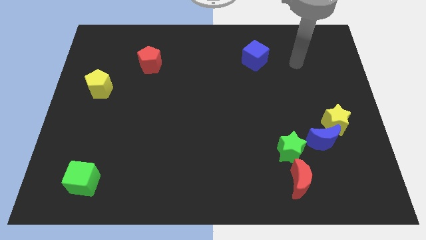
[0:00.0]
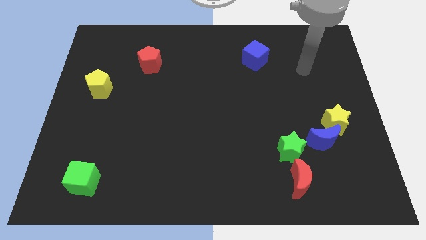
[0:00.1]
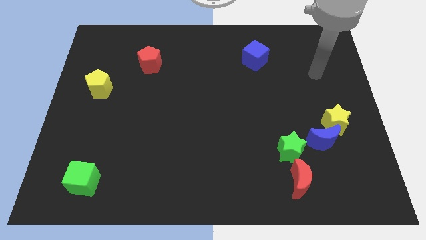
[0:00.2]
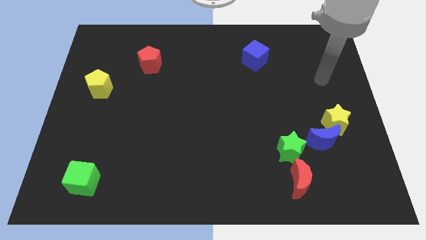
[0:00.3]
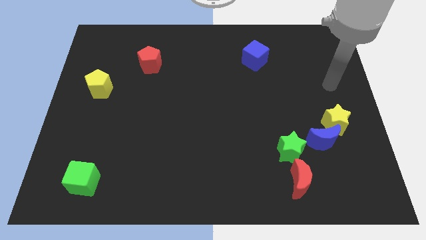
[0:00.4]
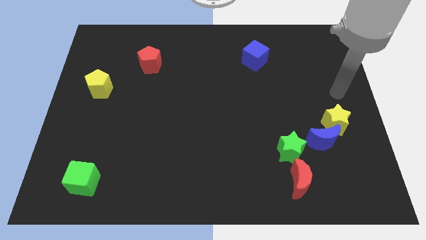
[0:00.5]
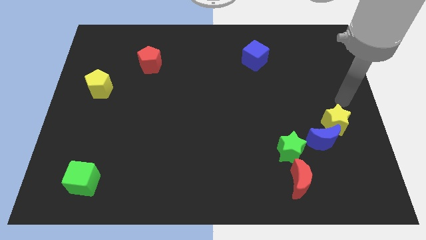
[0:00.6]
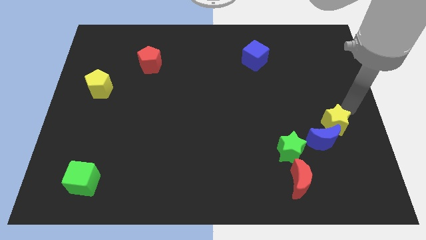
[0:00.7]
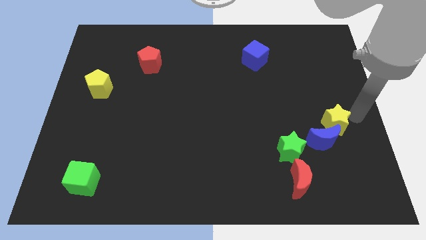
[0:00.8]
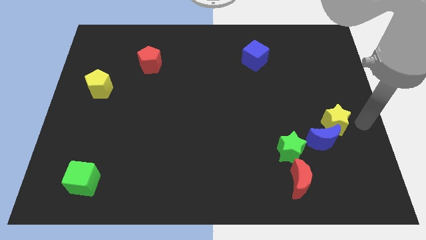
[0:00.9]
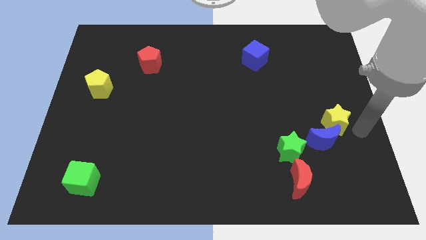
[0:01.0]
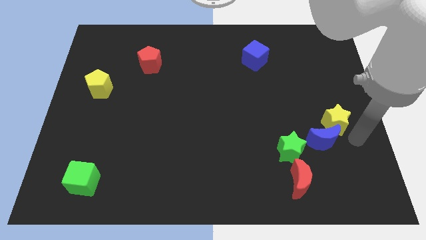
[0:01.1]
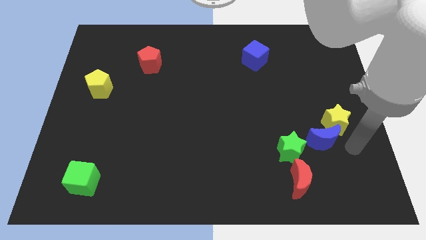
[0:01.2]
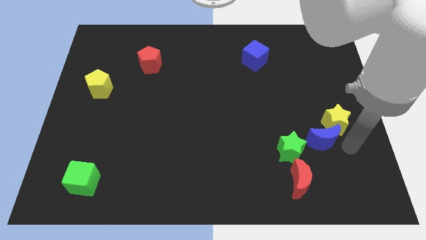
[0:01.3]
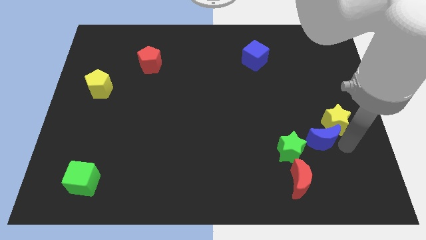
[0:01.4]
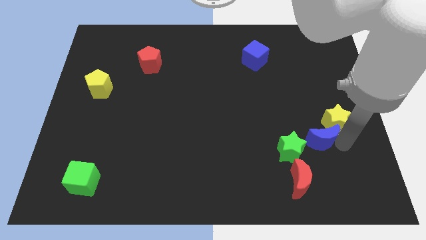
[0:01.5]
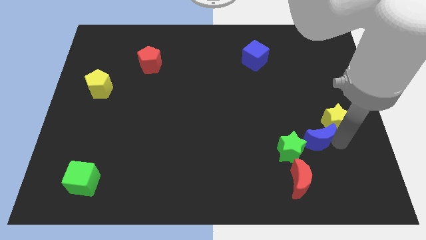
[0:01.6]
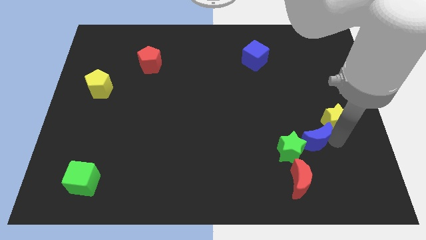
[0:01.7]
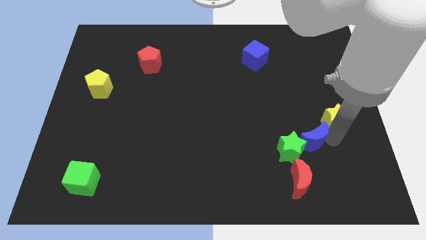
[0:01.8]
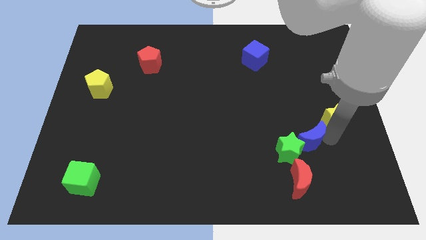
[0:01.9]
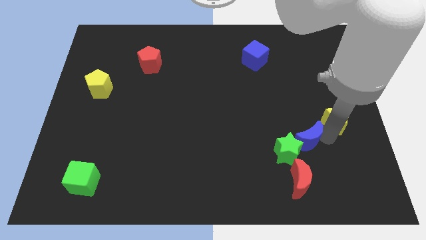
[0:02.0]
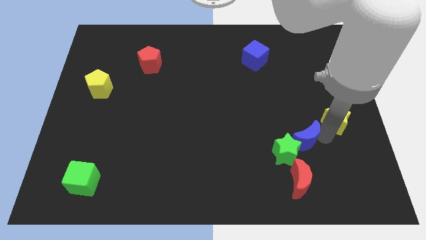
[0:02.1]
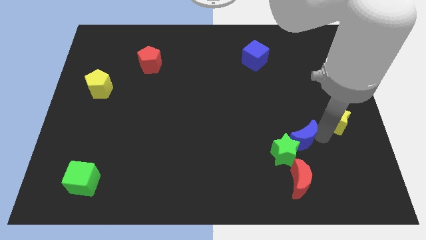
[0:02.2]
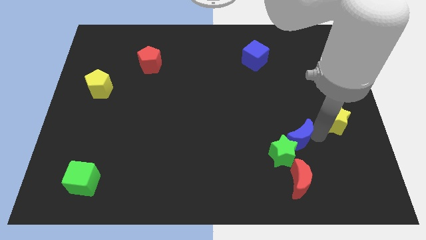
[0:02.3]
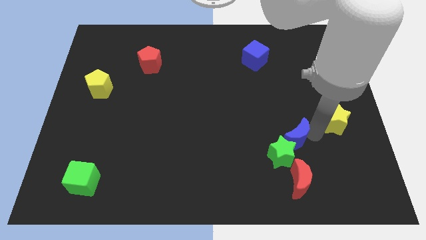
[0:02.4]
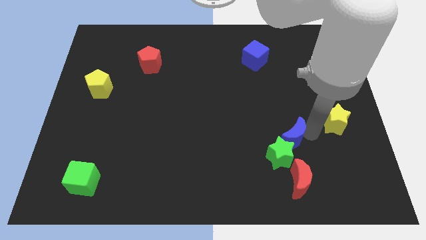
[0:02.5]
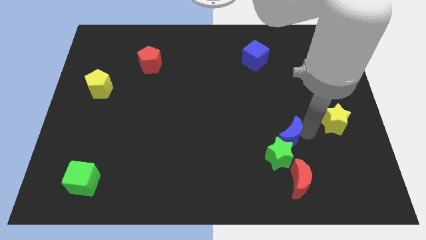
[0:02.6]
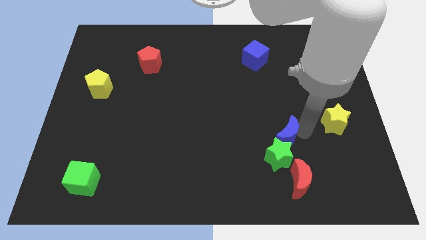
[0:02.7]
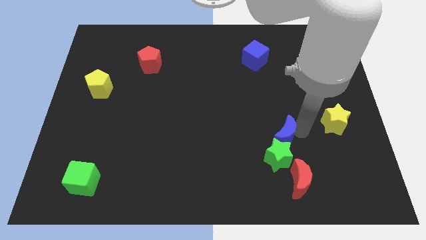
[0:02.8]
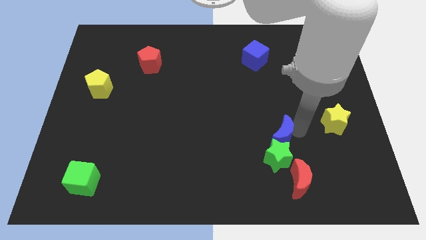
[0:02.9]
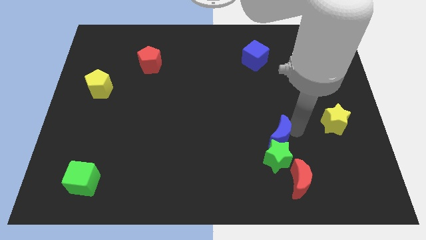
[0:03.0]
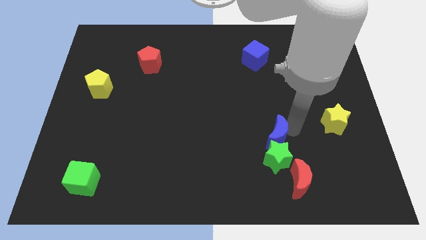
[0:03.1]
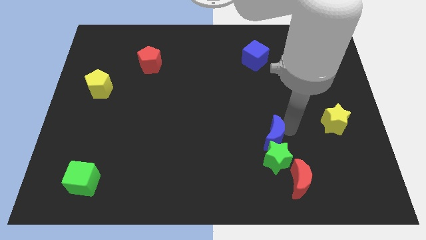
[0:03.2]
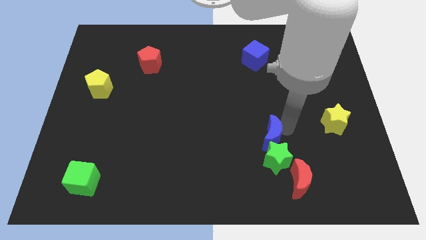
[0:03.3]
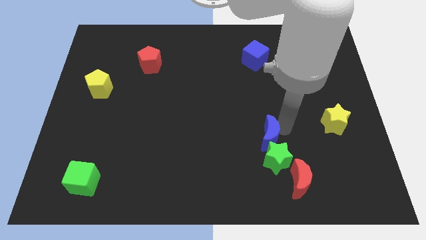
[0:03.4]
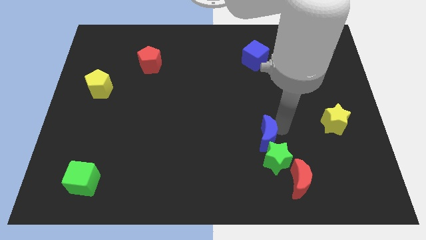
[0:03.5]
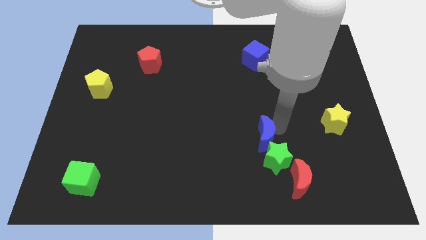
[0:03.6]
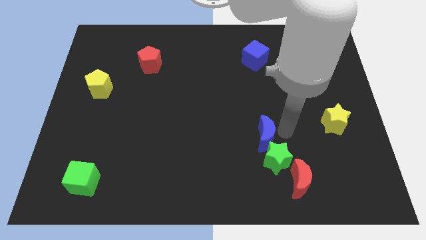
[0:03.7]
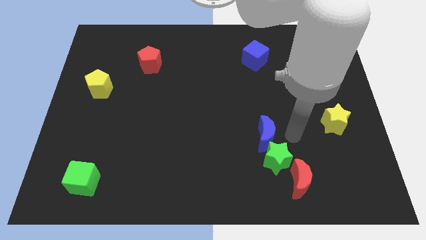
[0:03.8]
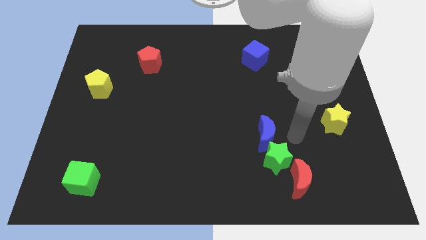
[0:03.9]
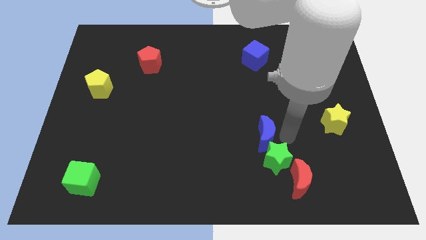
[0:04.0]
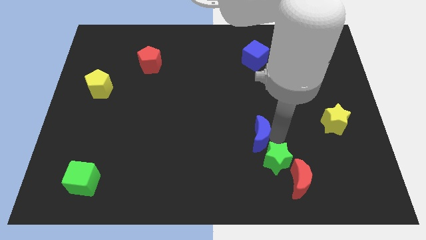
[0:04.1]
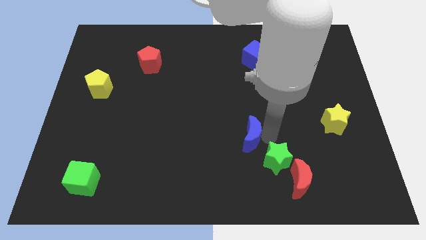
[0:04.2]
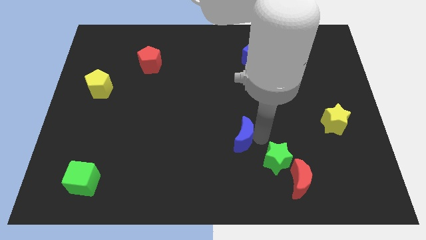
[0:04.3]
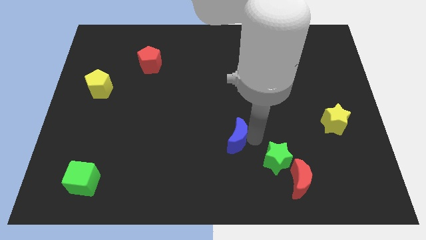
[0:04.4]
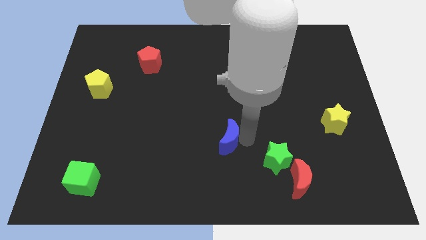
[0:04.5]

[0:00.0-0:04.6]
move the blue moon left

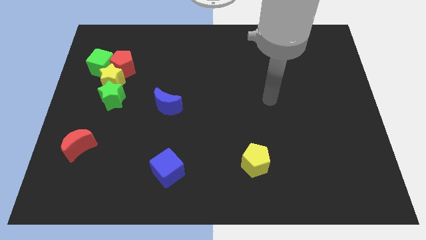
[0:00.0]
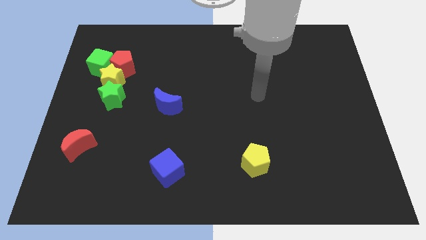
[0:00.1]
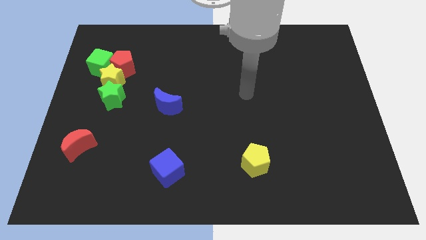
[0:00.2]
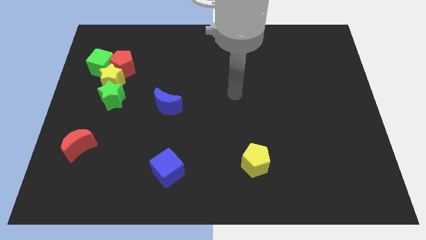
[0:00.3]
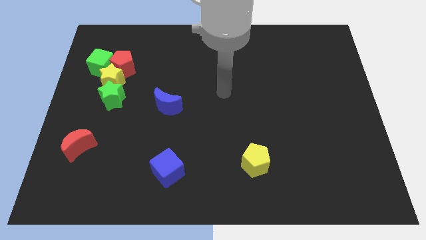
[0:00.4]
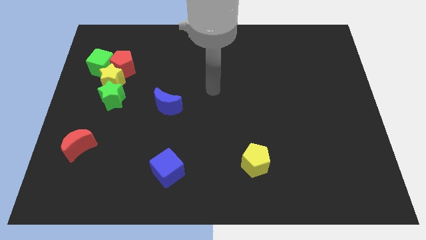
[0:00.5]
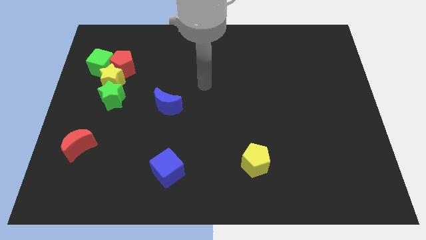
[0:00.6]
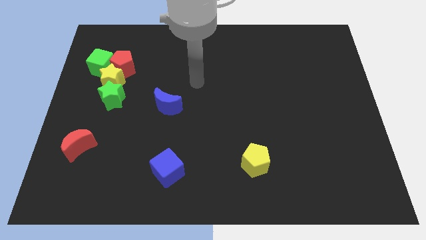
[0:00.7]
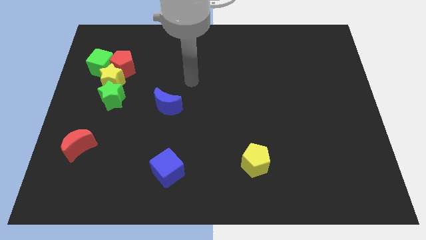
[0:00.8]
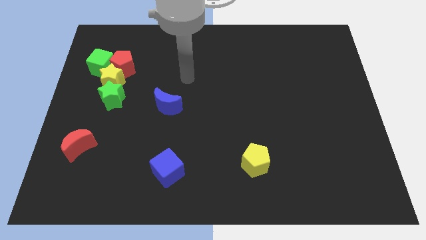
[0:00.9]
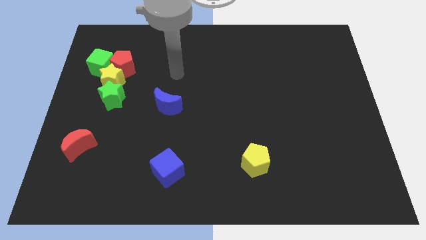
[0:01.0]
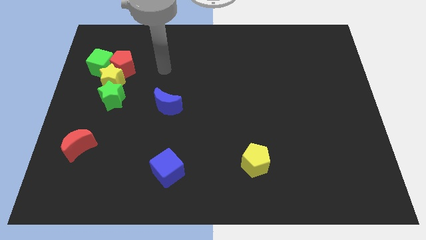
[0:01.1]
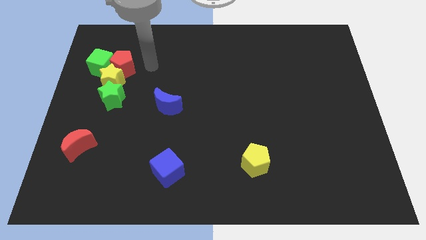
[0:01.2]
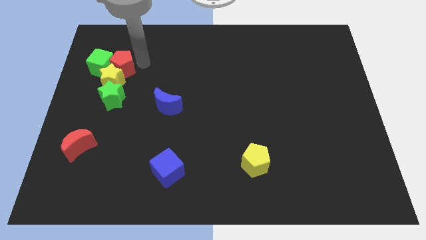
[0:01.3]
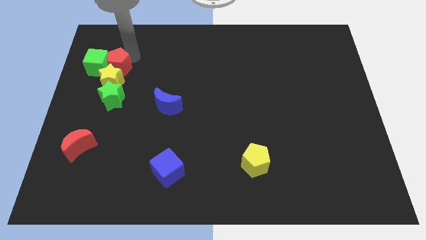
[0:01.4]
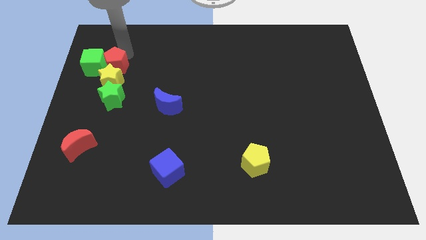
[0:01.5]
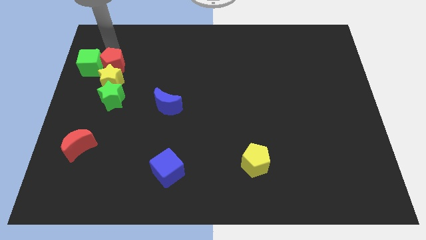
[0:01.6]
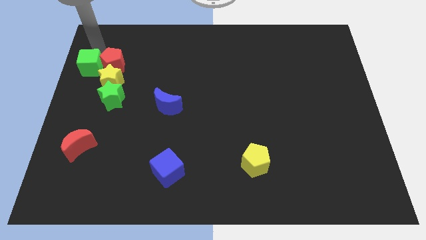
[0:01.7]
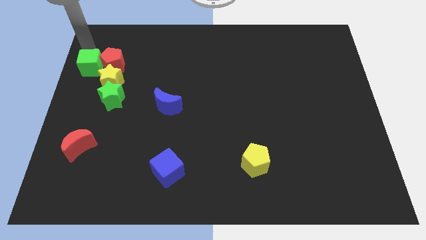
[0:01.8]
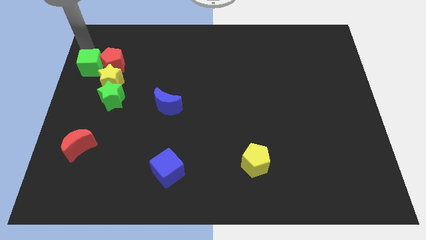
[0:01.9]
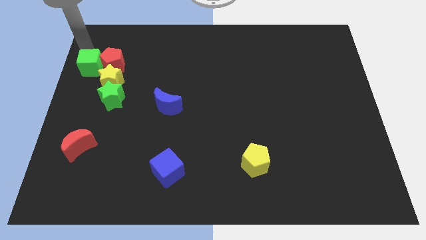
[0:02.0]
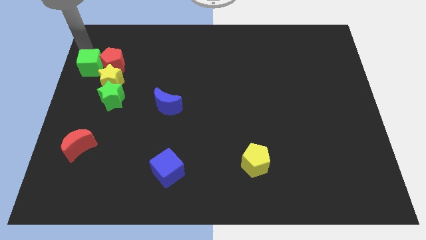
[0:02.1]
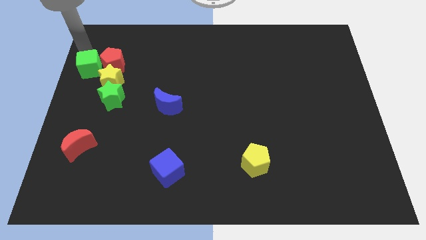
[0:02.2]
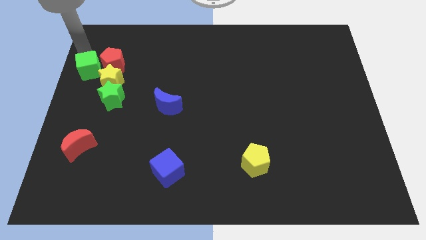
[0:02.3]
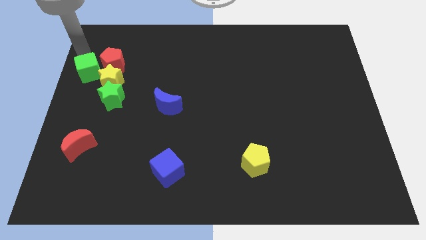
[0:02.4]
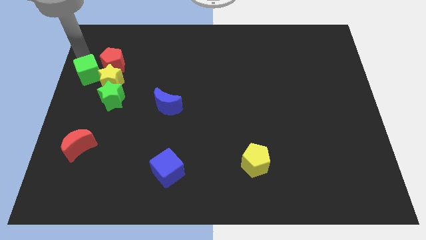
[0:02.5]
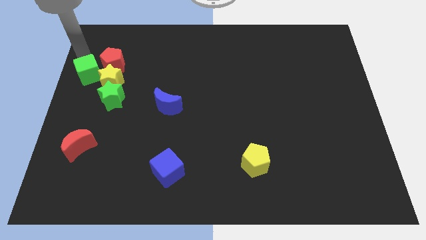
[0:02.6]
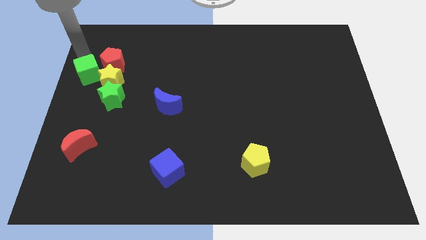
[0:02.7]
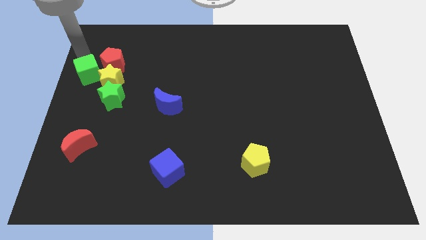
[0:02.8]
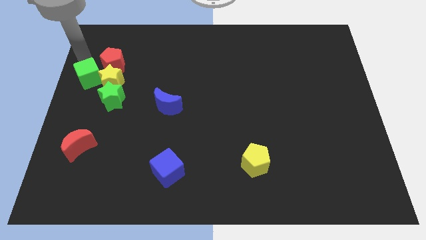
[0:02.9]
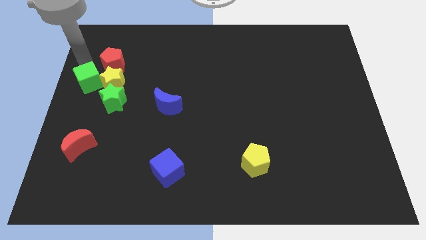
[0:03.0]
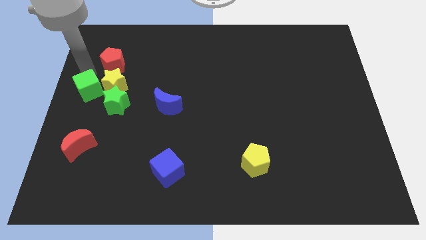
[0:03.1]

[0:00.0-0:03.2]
push the green cube somewhat downwards
